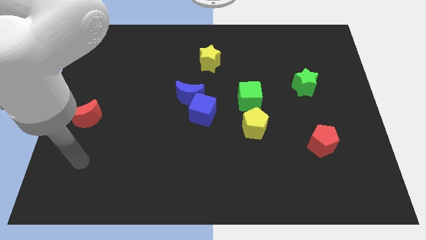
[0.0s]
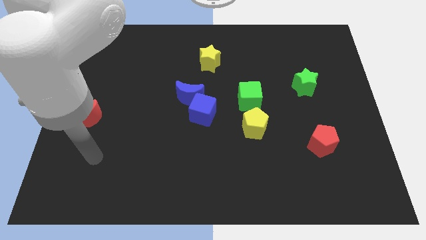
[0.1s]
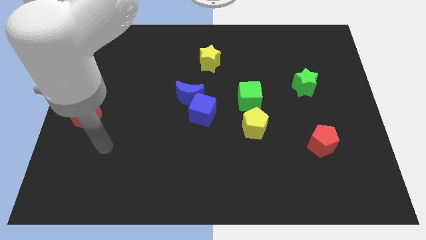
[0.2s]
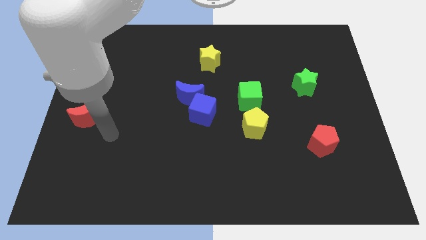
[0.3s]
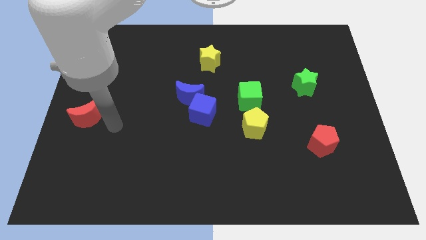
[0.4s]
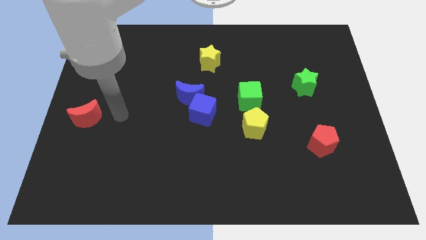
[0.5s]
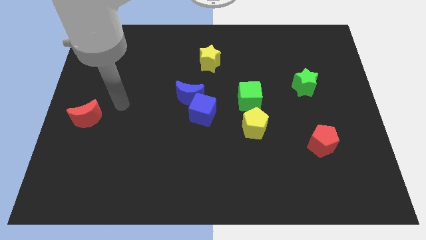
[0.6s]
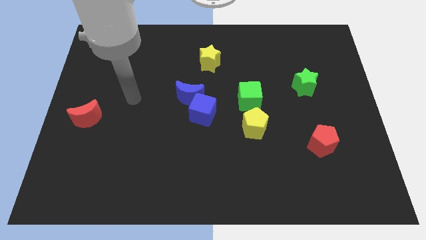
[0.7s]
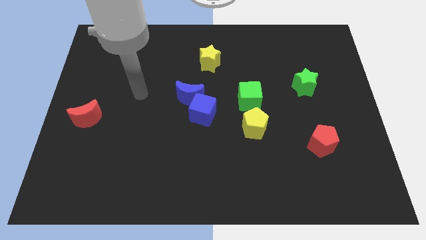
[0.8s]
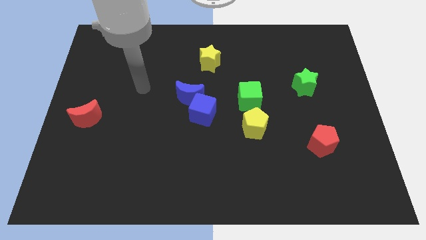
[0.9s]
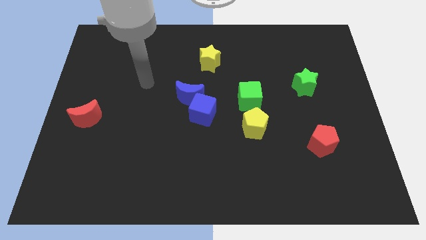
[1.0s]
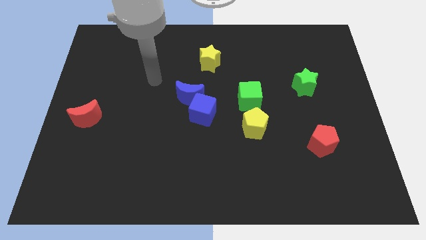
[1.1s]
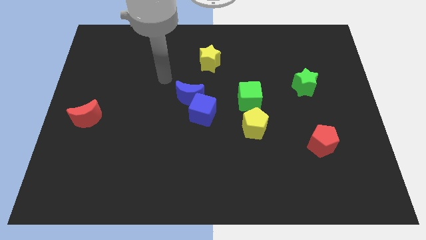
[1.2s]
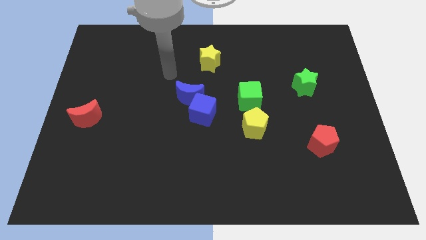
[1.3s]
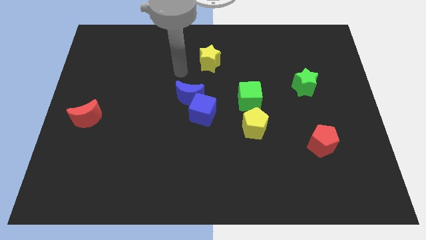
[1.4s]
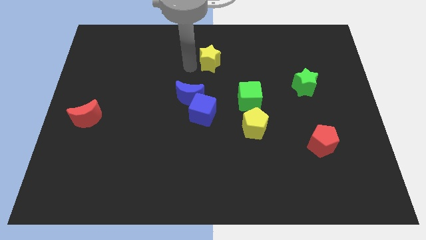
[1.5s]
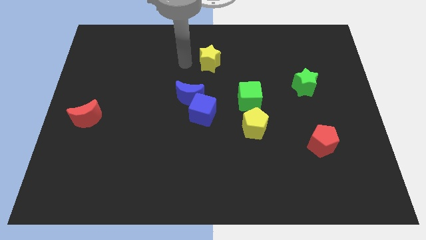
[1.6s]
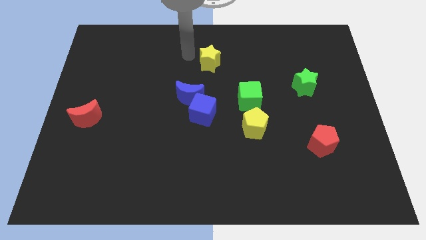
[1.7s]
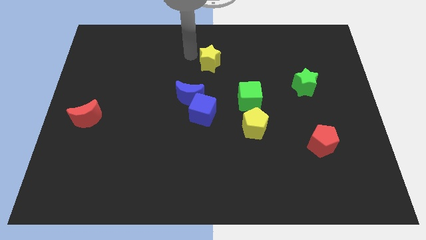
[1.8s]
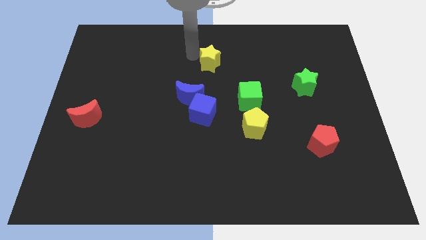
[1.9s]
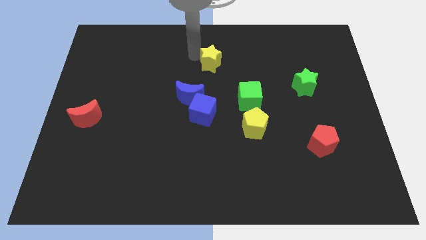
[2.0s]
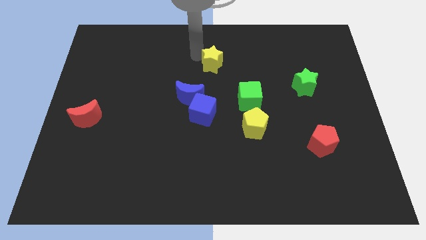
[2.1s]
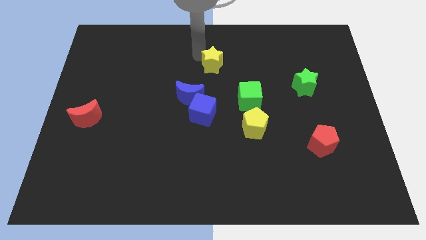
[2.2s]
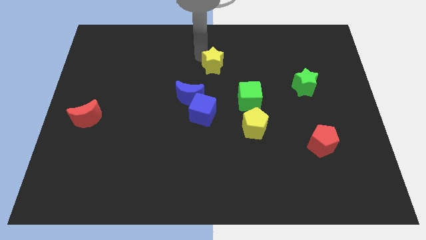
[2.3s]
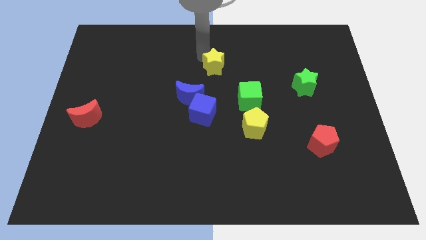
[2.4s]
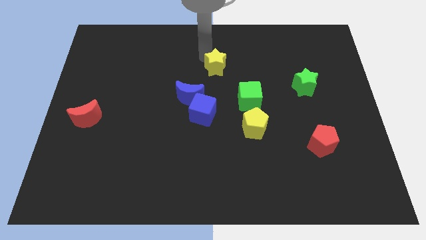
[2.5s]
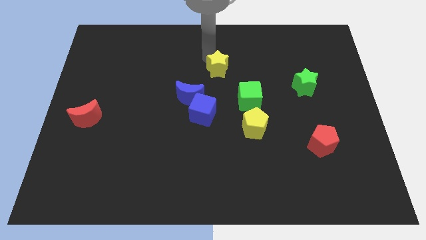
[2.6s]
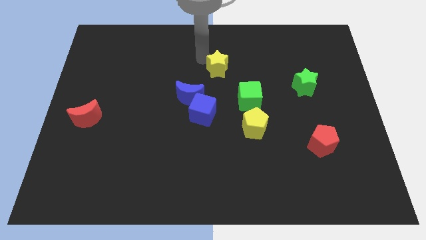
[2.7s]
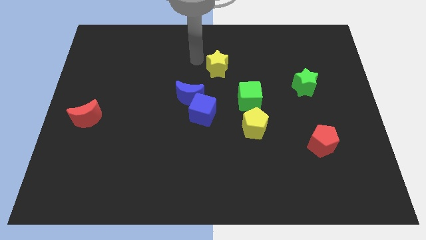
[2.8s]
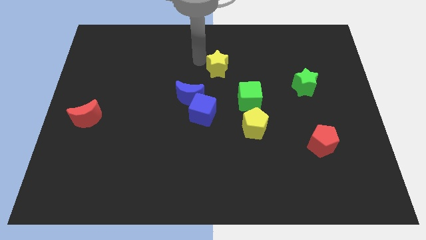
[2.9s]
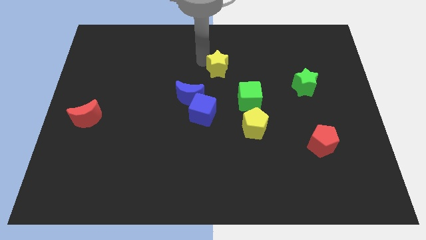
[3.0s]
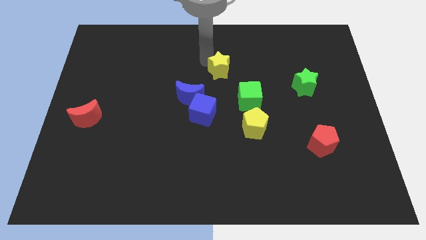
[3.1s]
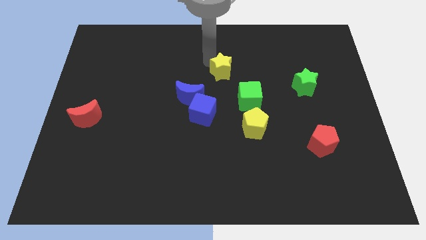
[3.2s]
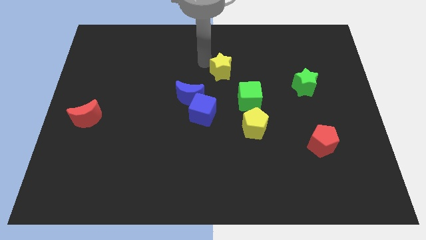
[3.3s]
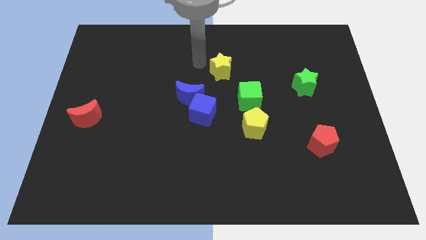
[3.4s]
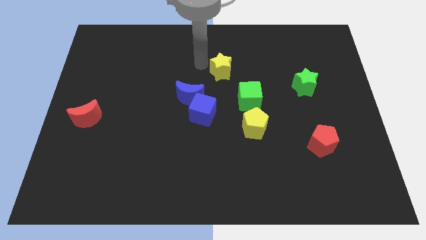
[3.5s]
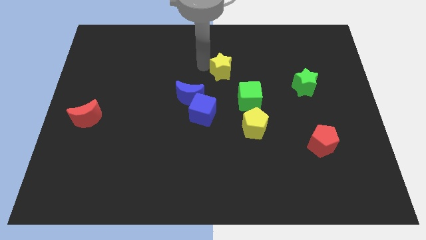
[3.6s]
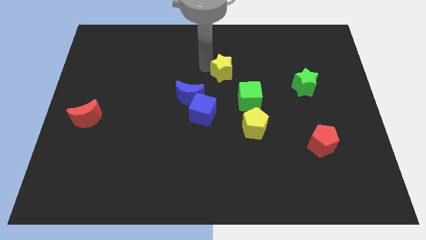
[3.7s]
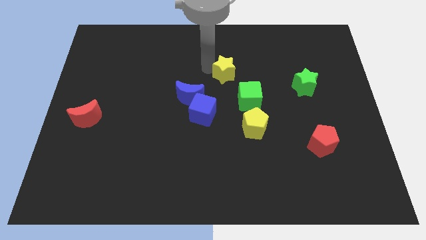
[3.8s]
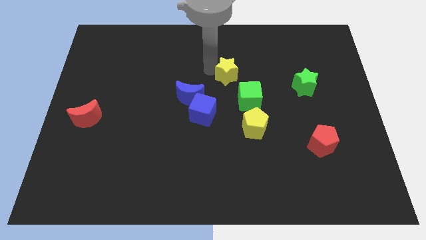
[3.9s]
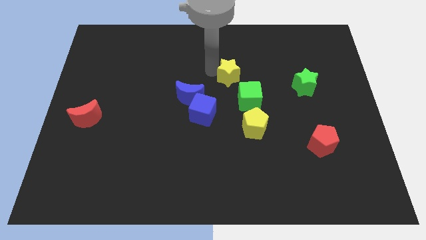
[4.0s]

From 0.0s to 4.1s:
move the yellow star downwards and right somewhat

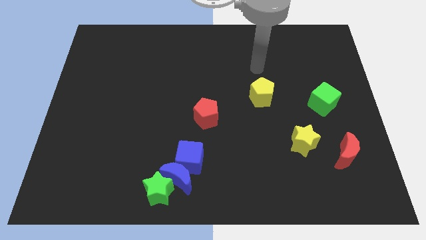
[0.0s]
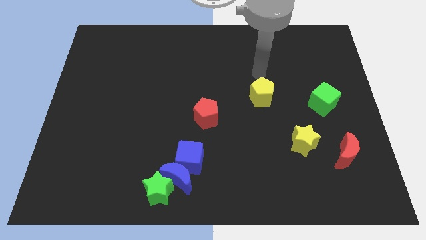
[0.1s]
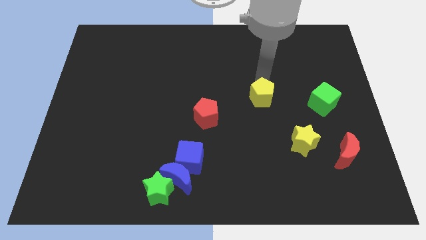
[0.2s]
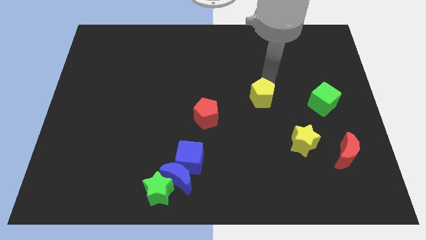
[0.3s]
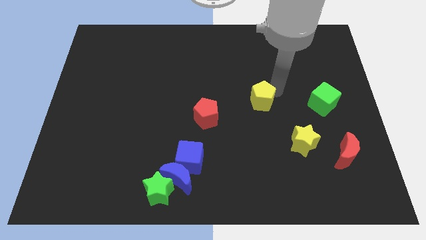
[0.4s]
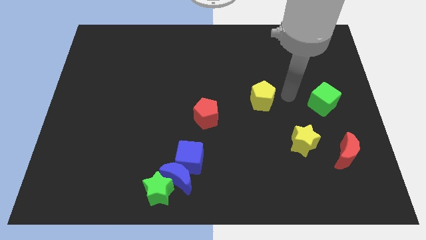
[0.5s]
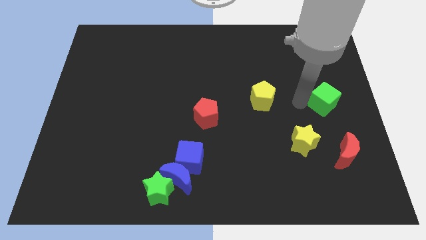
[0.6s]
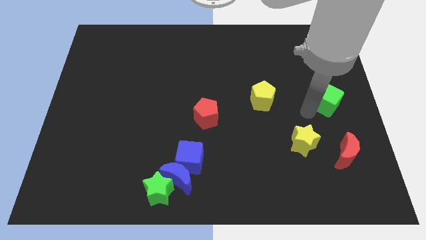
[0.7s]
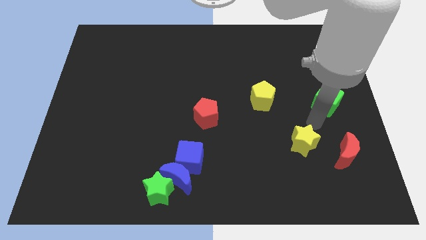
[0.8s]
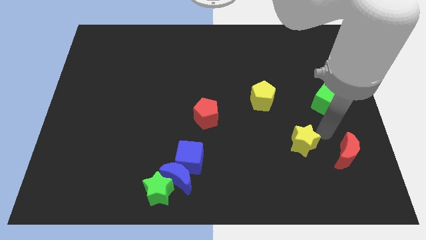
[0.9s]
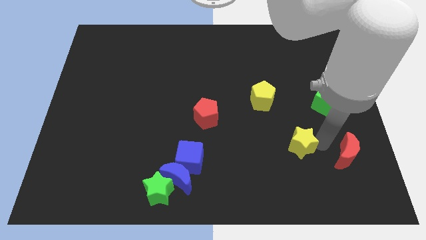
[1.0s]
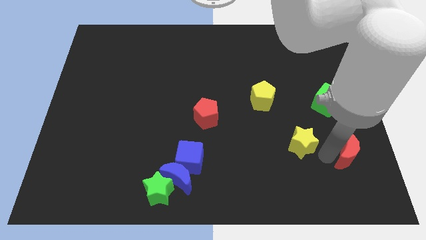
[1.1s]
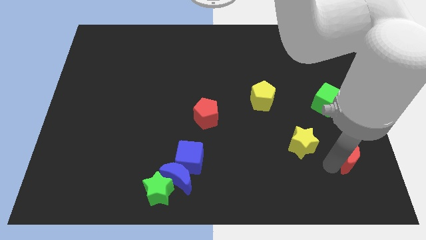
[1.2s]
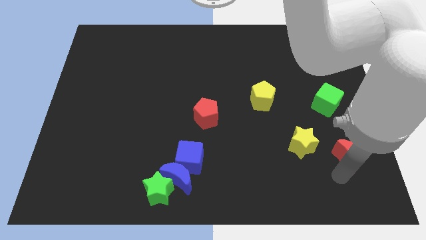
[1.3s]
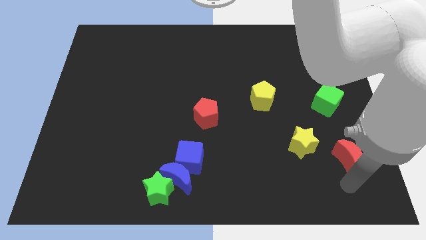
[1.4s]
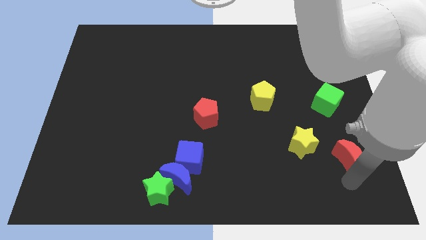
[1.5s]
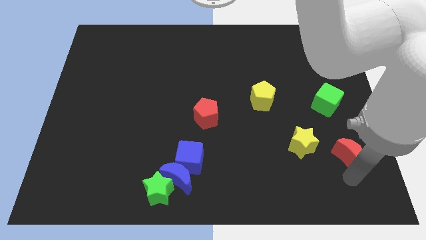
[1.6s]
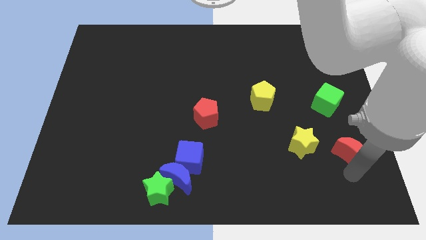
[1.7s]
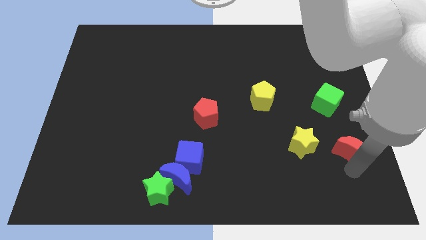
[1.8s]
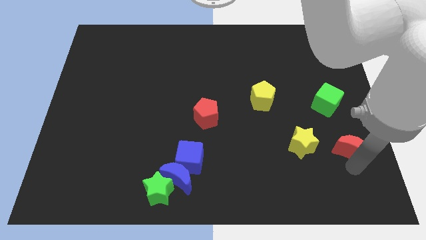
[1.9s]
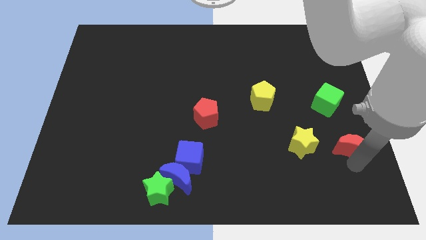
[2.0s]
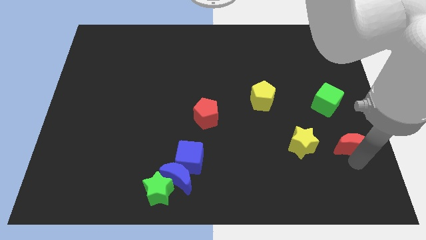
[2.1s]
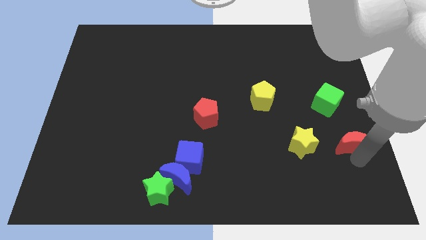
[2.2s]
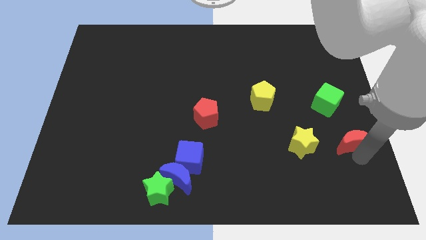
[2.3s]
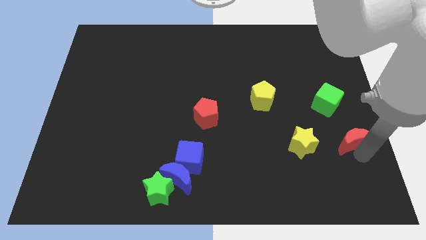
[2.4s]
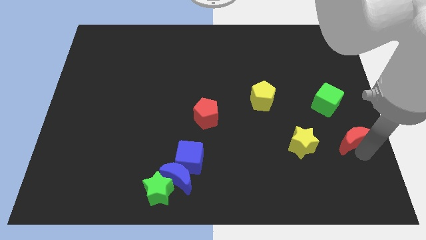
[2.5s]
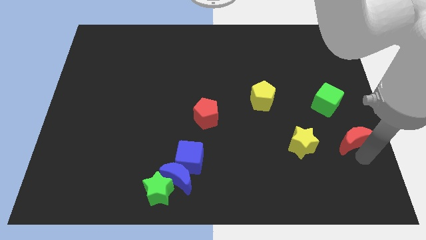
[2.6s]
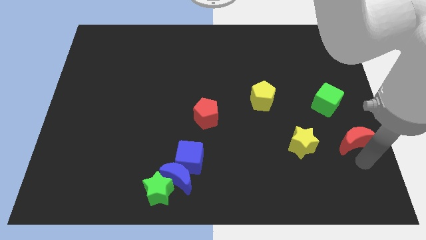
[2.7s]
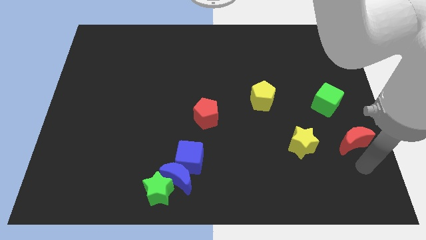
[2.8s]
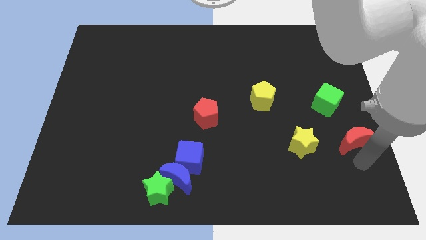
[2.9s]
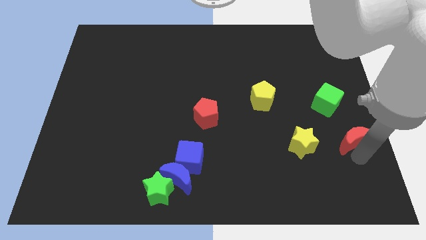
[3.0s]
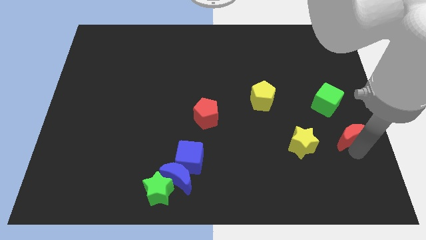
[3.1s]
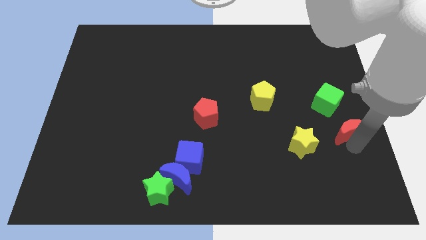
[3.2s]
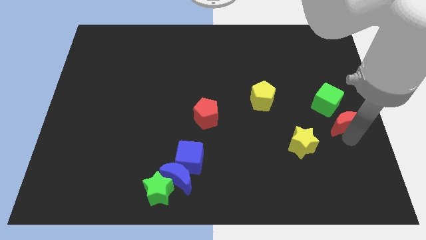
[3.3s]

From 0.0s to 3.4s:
push the red moon somewhat upwards

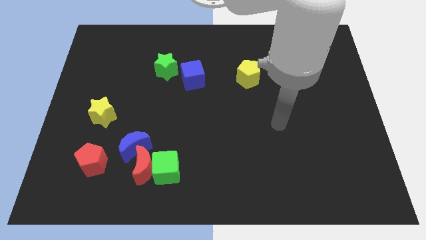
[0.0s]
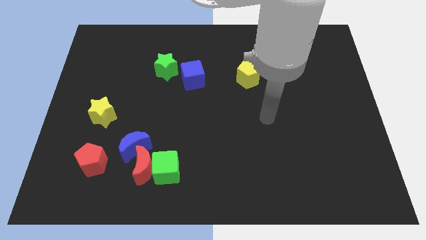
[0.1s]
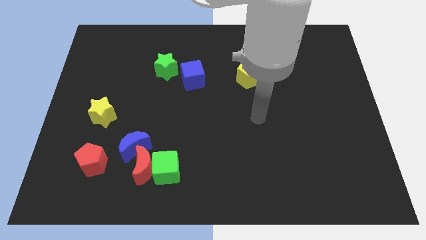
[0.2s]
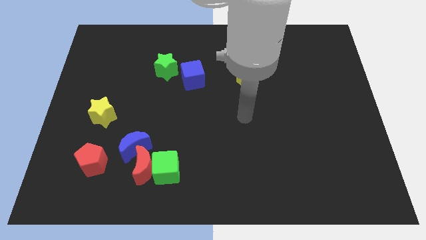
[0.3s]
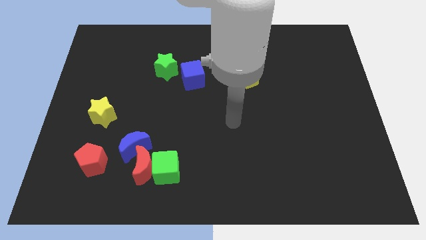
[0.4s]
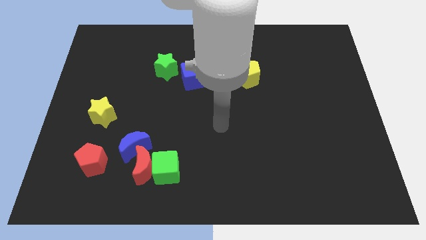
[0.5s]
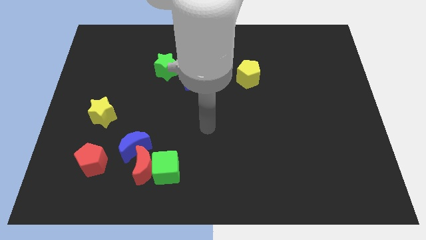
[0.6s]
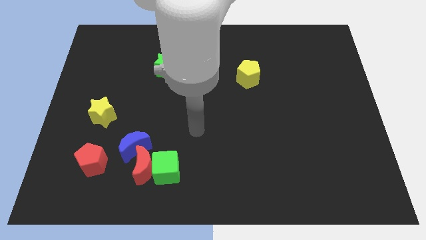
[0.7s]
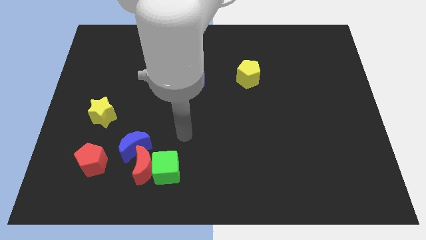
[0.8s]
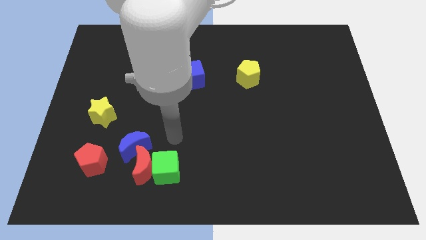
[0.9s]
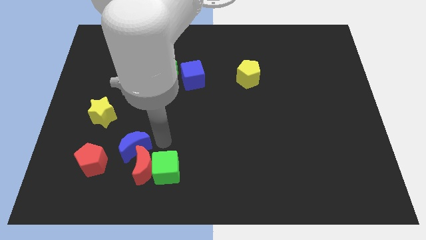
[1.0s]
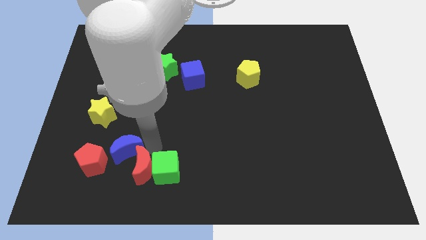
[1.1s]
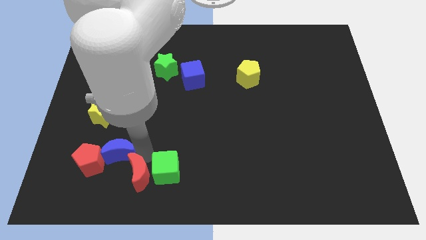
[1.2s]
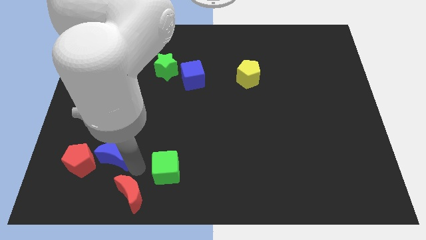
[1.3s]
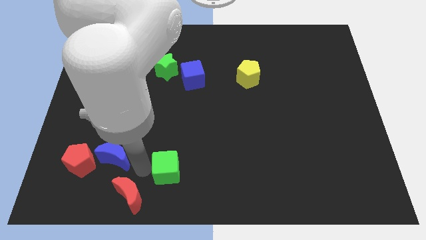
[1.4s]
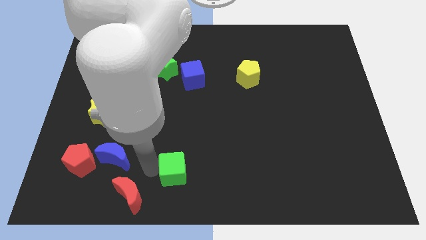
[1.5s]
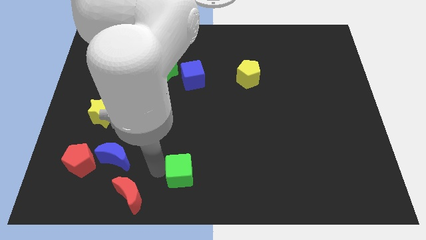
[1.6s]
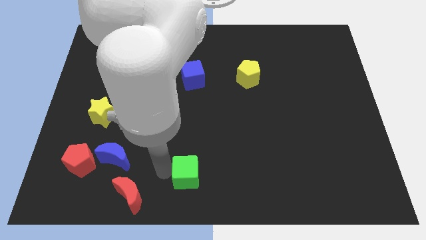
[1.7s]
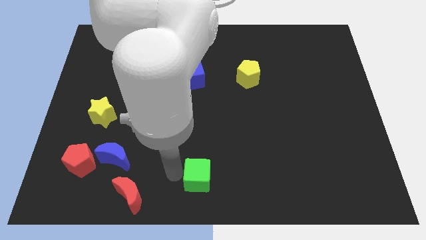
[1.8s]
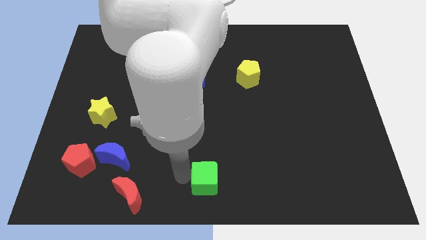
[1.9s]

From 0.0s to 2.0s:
push the green cube somewhat right
